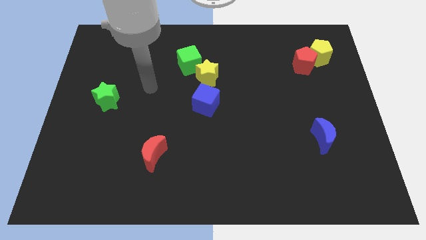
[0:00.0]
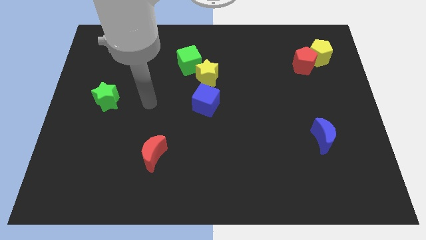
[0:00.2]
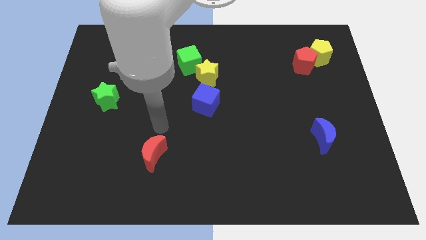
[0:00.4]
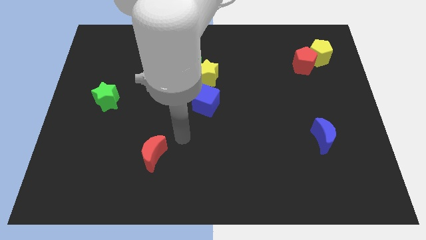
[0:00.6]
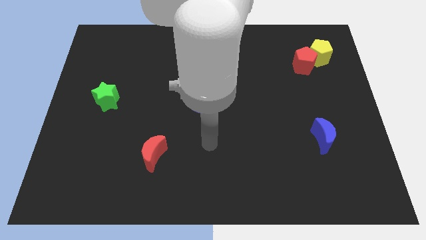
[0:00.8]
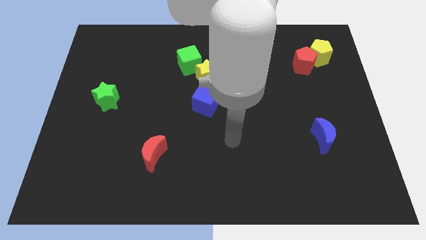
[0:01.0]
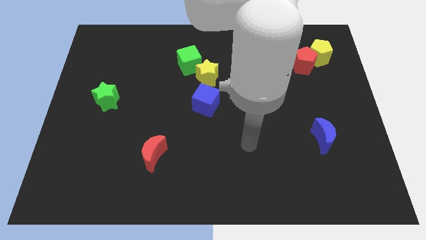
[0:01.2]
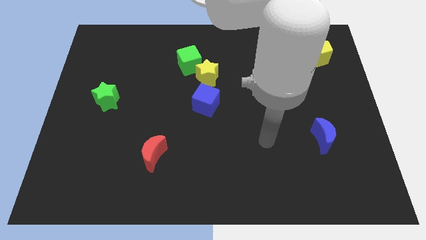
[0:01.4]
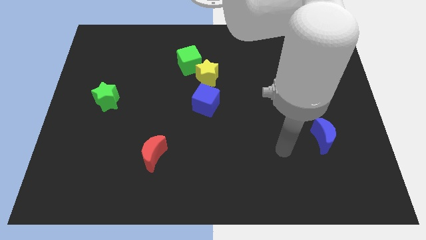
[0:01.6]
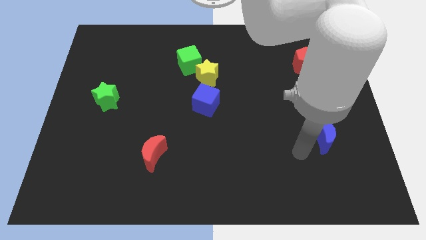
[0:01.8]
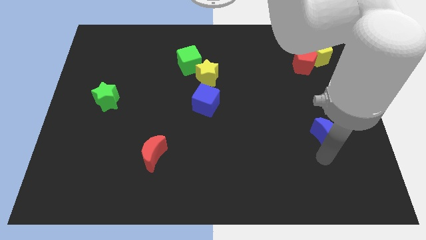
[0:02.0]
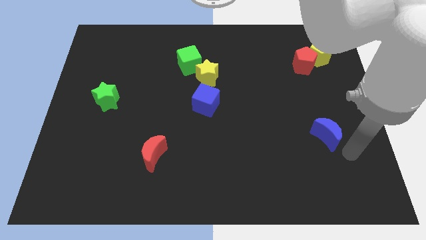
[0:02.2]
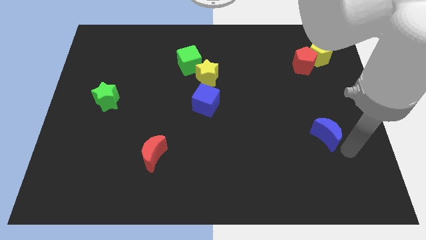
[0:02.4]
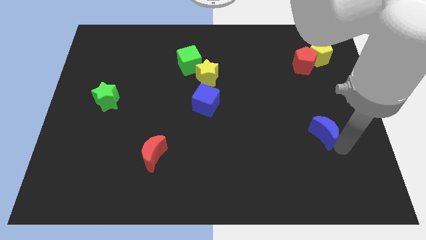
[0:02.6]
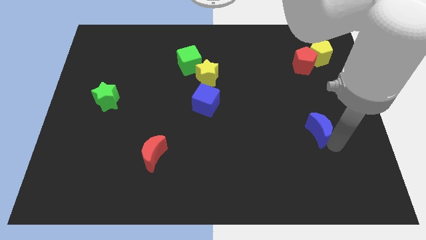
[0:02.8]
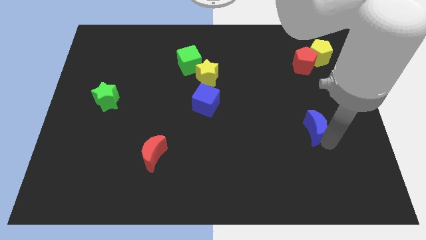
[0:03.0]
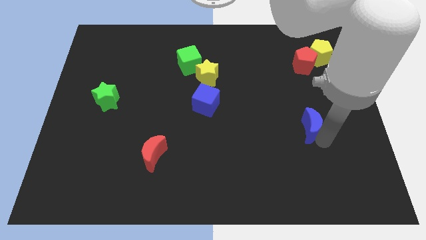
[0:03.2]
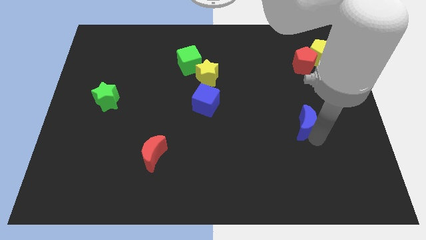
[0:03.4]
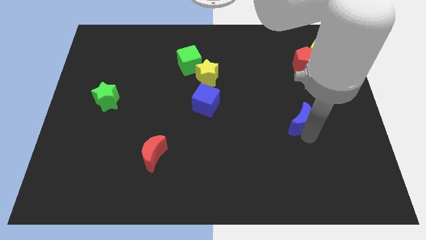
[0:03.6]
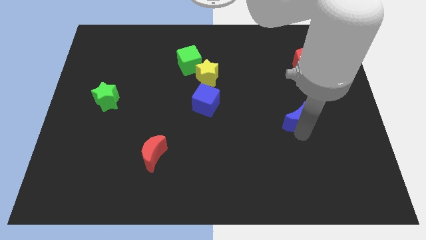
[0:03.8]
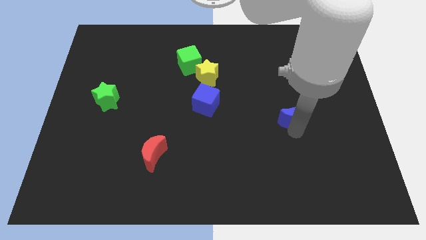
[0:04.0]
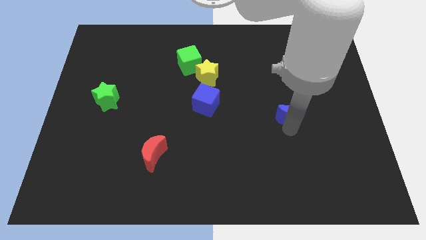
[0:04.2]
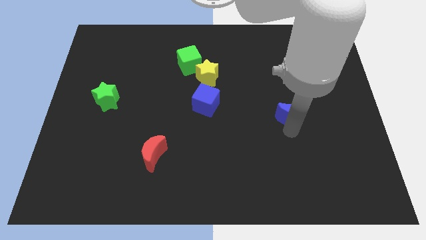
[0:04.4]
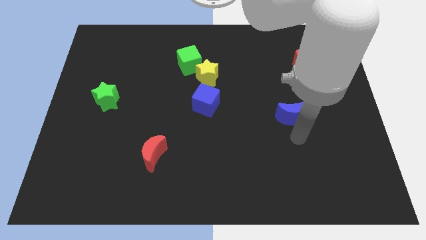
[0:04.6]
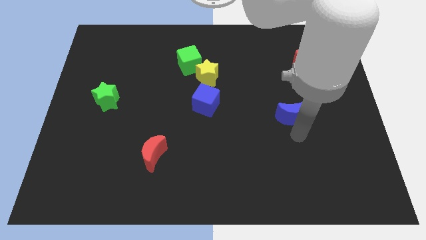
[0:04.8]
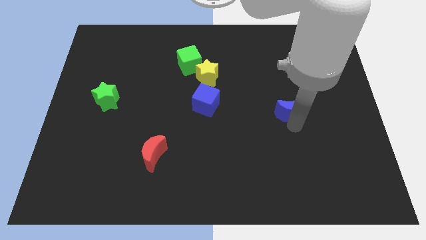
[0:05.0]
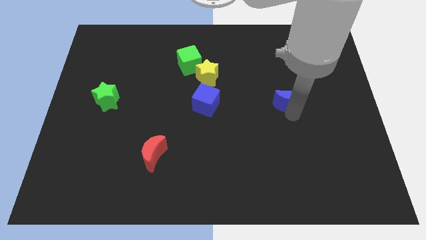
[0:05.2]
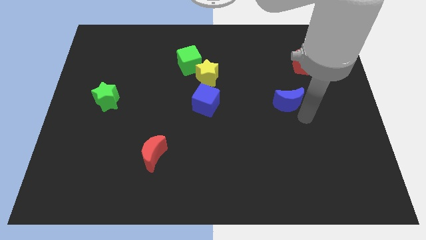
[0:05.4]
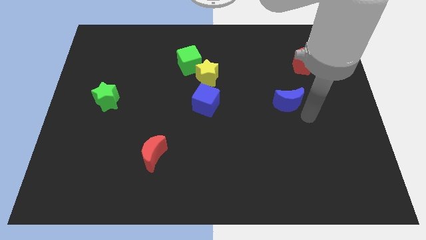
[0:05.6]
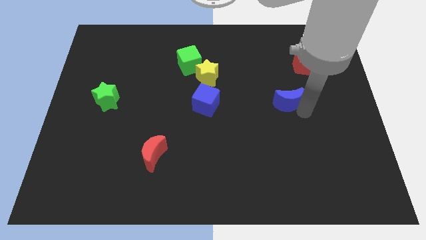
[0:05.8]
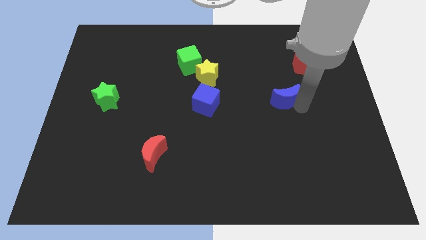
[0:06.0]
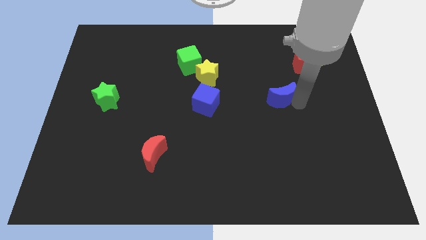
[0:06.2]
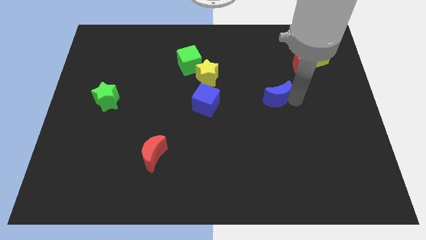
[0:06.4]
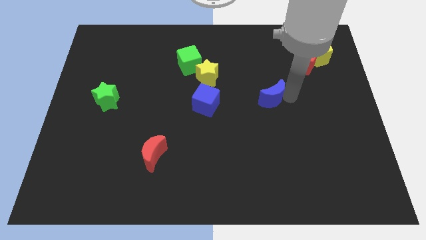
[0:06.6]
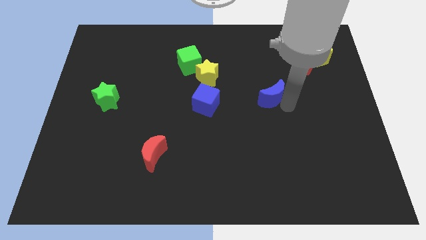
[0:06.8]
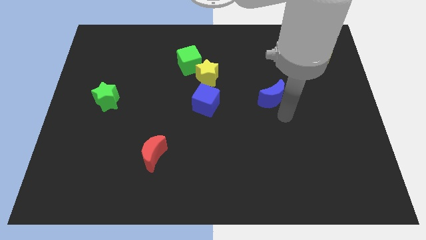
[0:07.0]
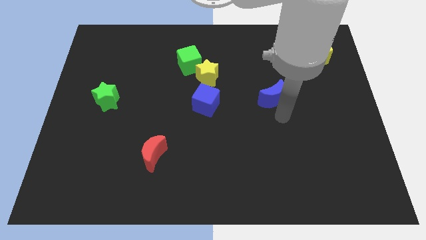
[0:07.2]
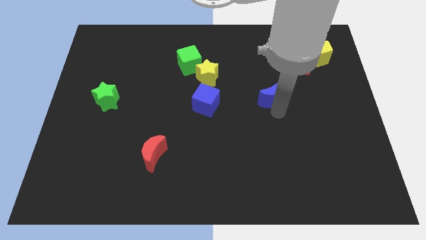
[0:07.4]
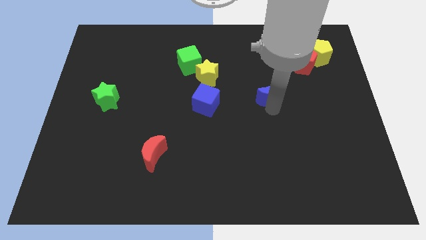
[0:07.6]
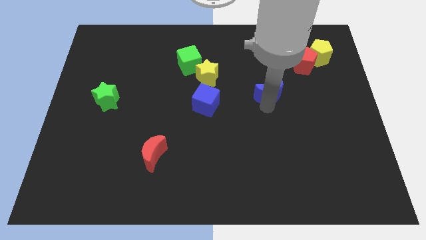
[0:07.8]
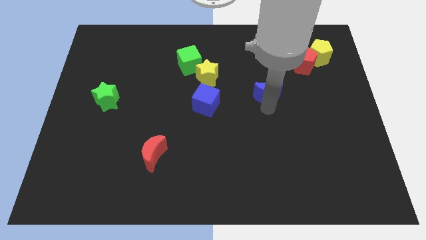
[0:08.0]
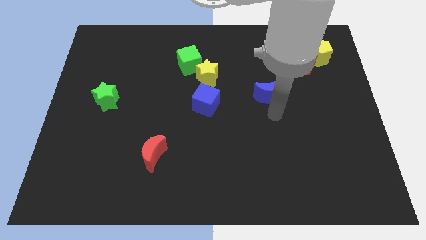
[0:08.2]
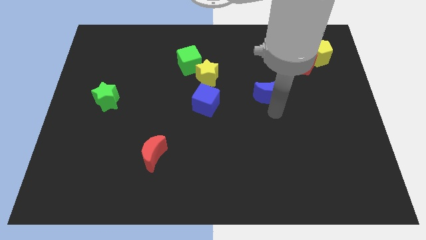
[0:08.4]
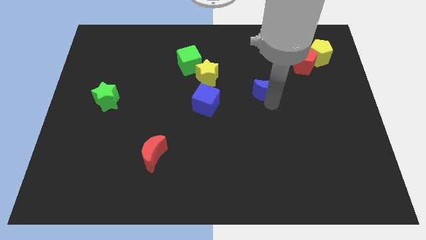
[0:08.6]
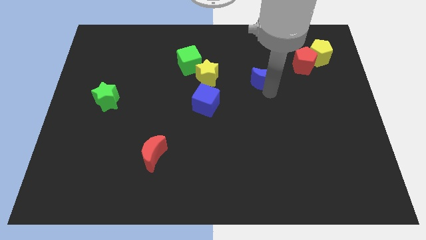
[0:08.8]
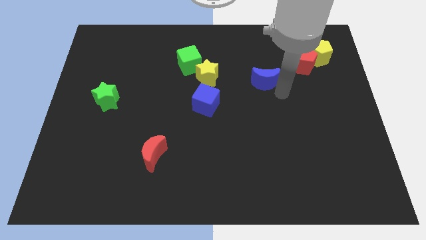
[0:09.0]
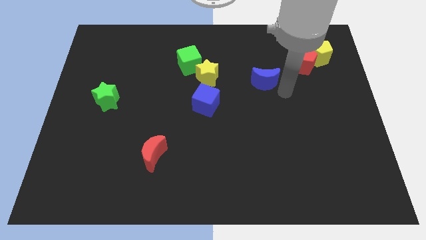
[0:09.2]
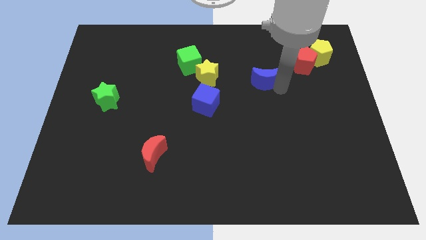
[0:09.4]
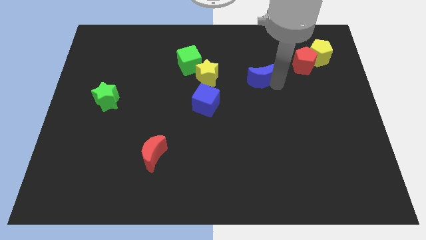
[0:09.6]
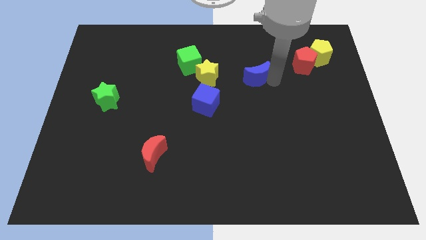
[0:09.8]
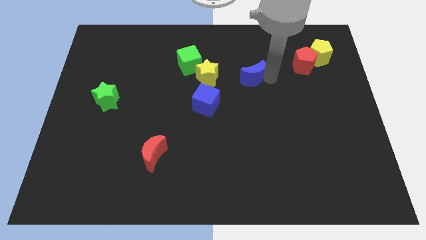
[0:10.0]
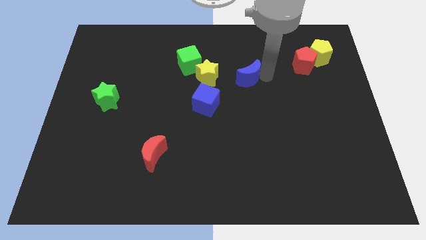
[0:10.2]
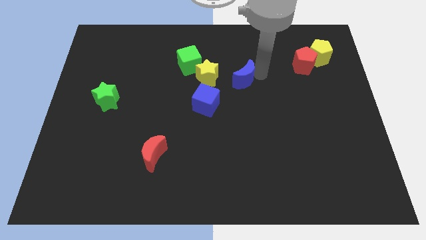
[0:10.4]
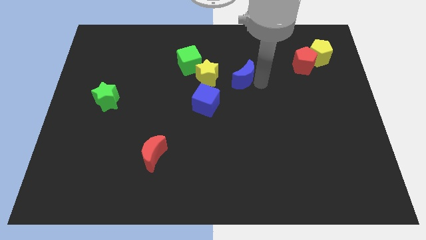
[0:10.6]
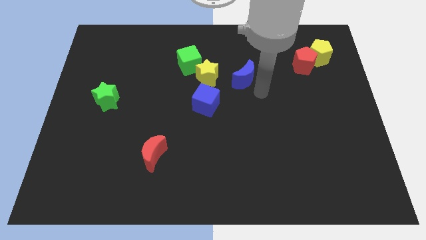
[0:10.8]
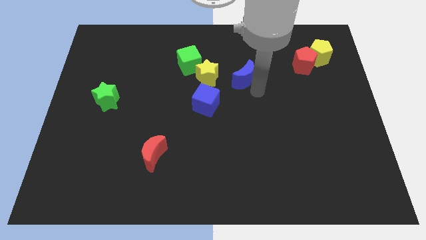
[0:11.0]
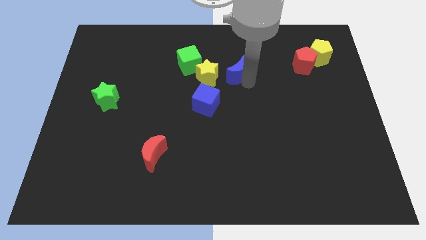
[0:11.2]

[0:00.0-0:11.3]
push the blue moon just right of the green cube
